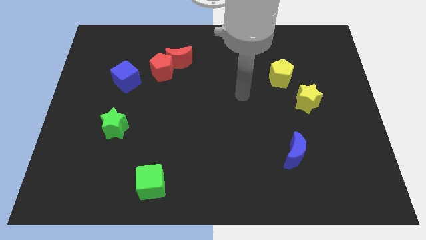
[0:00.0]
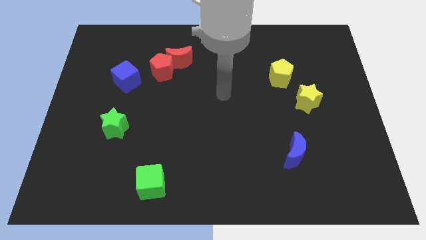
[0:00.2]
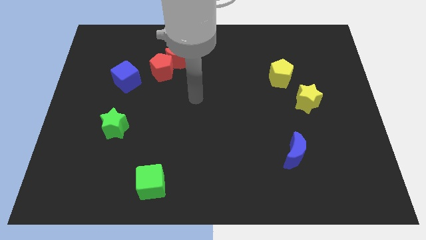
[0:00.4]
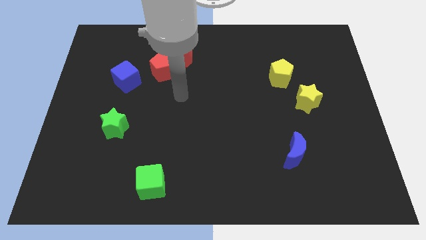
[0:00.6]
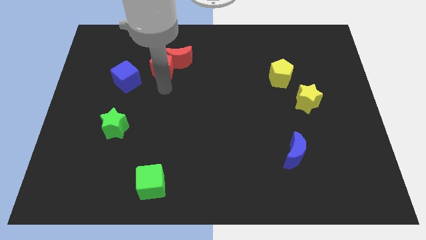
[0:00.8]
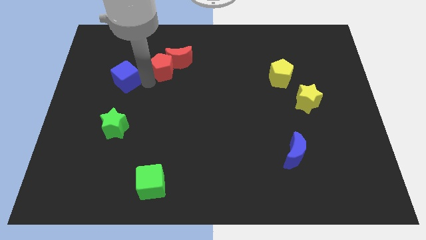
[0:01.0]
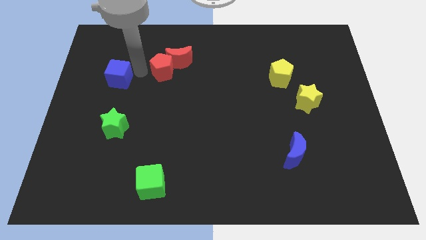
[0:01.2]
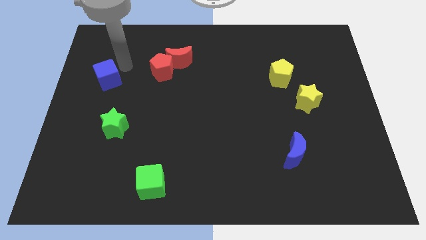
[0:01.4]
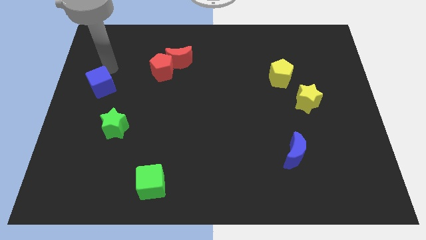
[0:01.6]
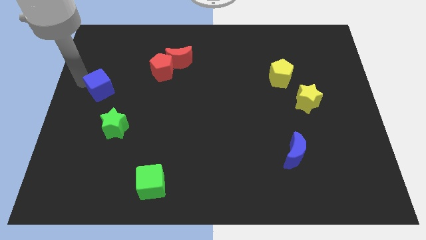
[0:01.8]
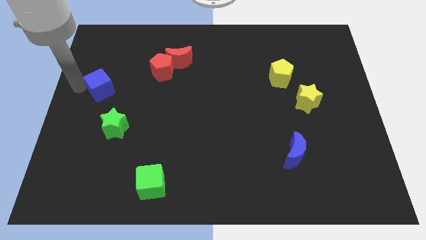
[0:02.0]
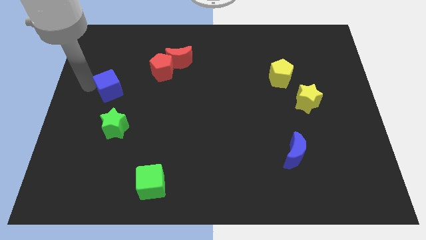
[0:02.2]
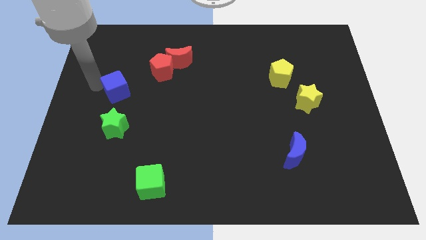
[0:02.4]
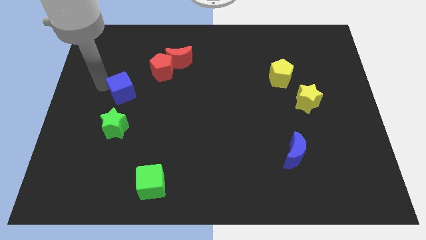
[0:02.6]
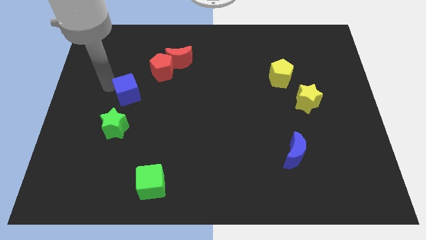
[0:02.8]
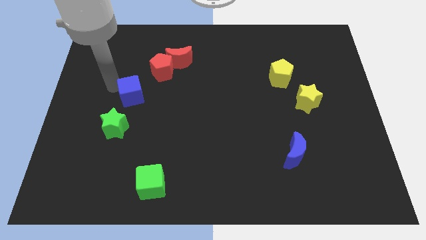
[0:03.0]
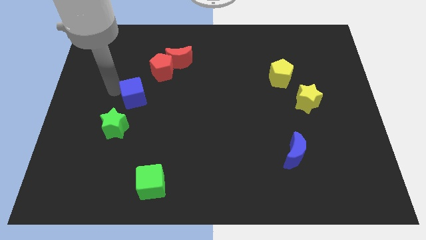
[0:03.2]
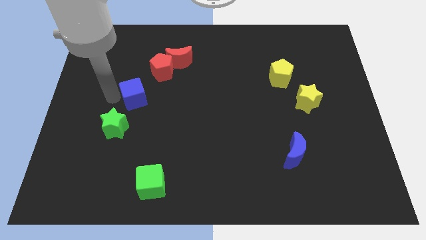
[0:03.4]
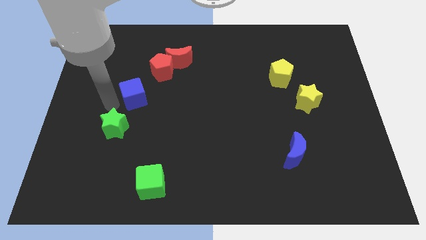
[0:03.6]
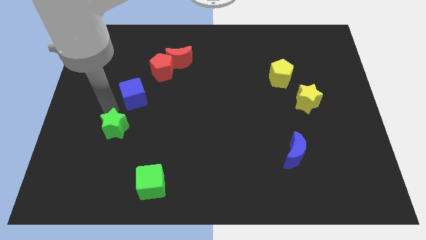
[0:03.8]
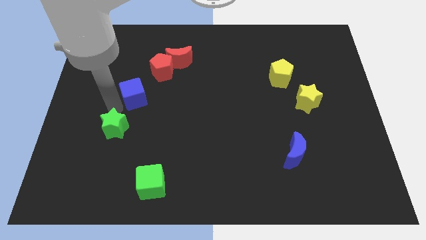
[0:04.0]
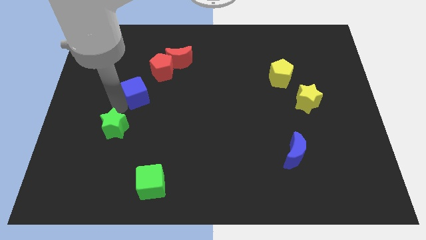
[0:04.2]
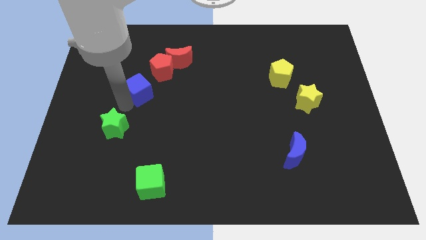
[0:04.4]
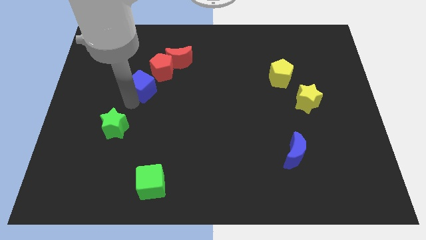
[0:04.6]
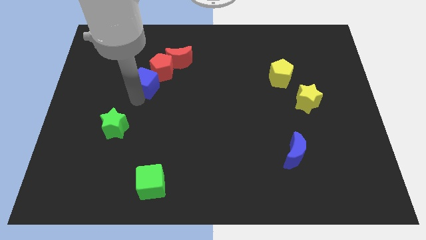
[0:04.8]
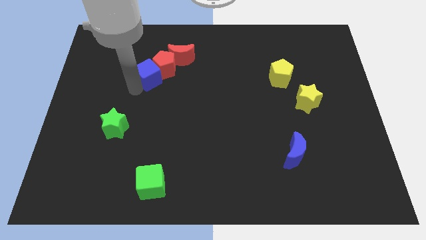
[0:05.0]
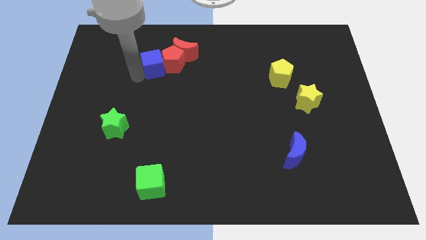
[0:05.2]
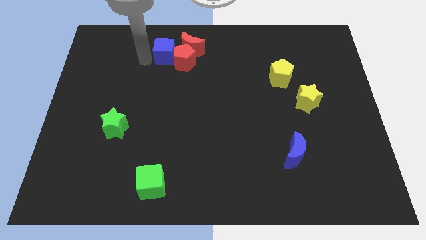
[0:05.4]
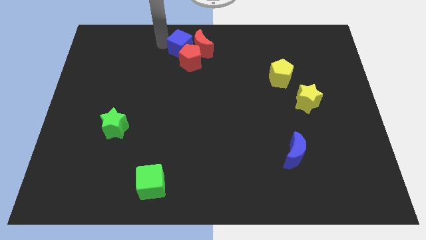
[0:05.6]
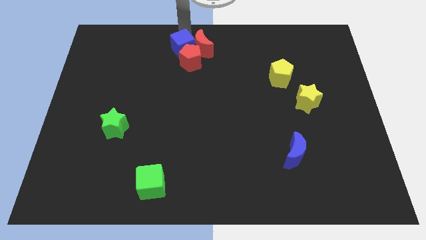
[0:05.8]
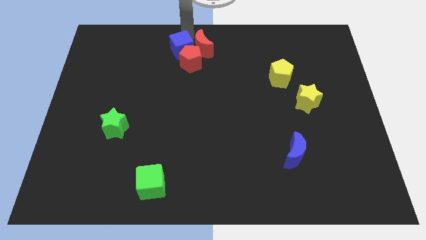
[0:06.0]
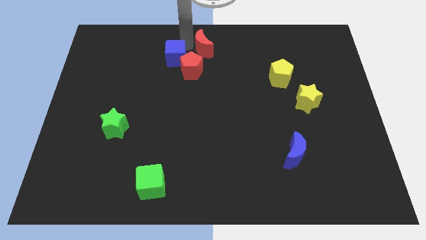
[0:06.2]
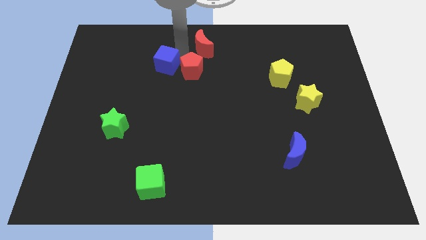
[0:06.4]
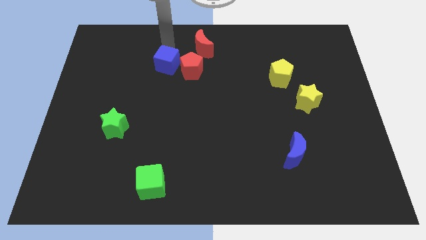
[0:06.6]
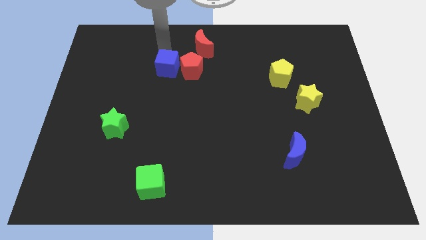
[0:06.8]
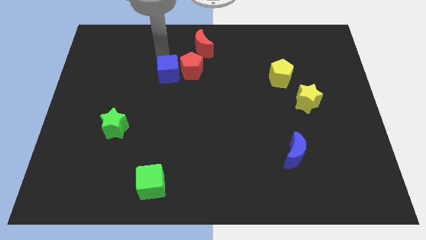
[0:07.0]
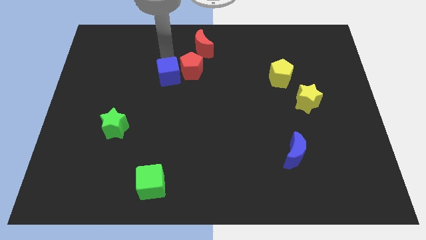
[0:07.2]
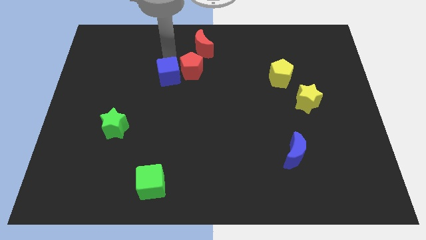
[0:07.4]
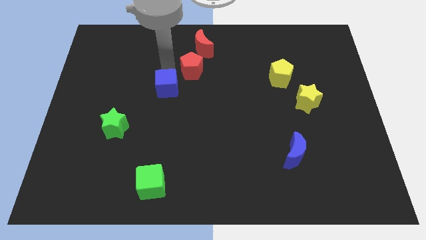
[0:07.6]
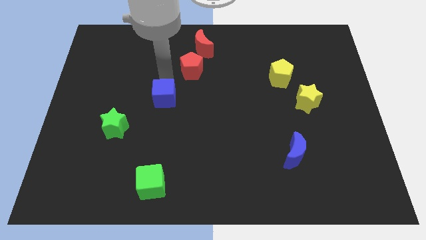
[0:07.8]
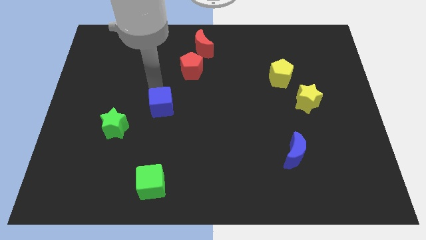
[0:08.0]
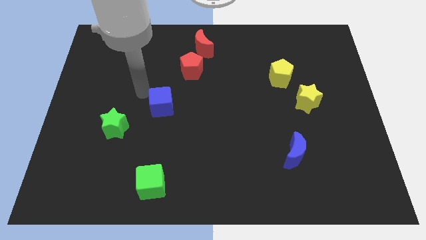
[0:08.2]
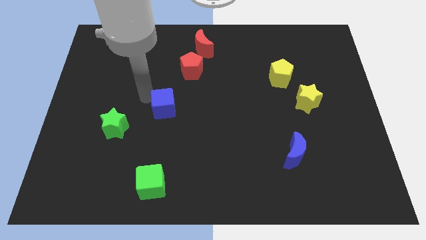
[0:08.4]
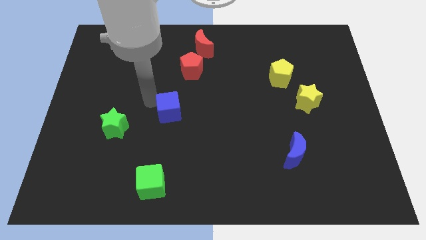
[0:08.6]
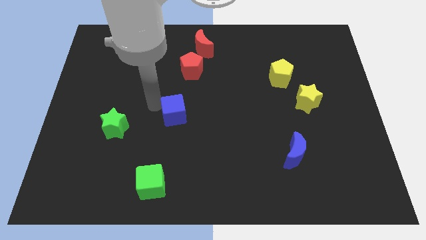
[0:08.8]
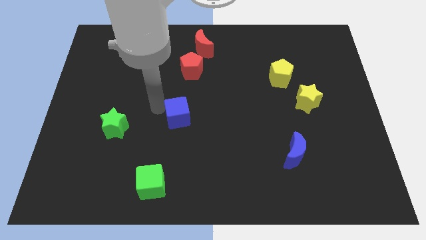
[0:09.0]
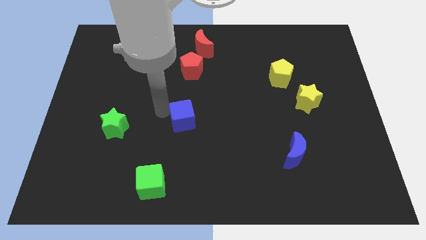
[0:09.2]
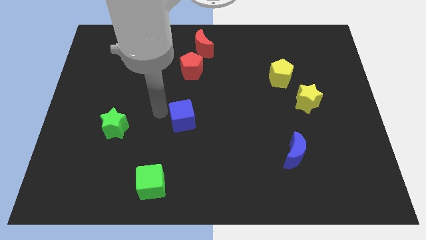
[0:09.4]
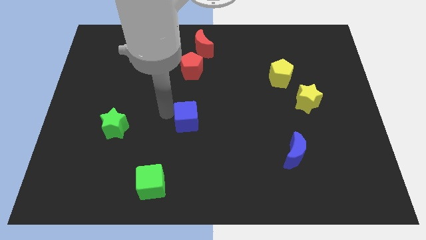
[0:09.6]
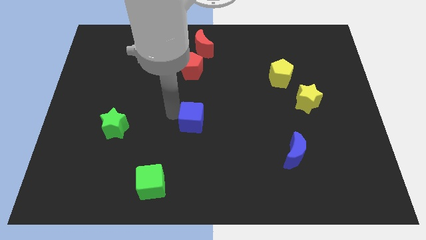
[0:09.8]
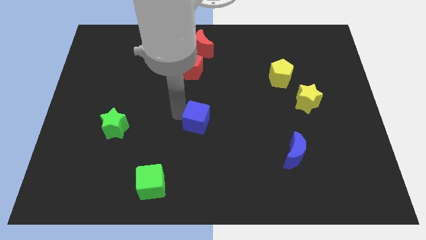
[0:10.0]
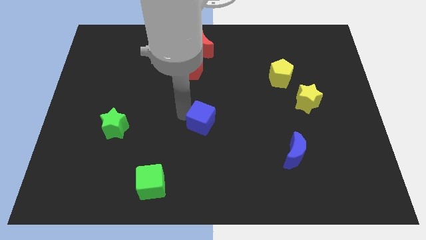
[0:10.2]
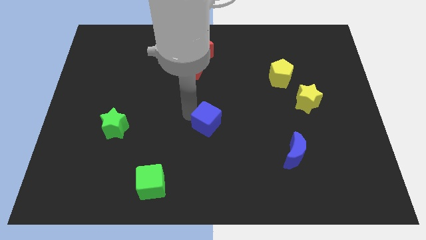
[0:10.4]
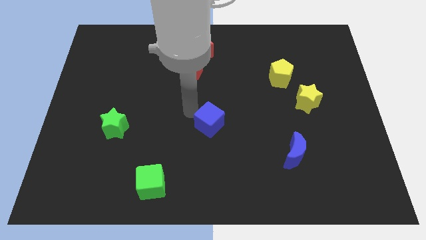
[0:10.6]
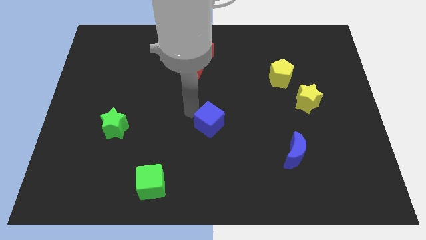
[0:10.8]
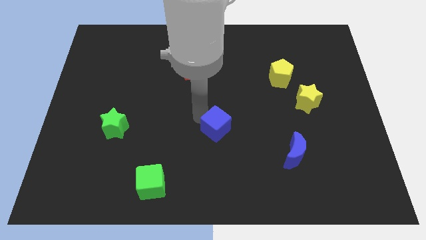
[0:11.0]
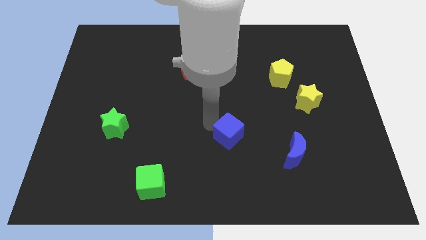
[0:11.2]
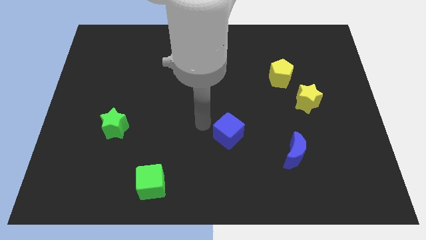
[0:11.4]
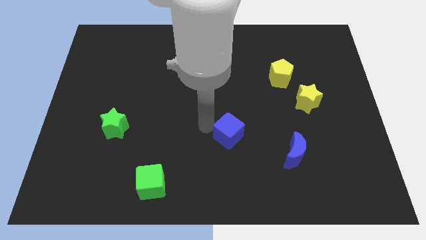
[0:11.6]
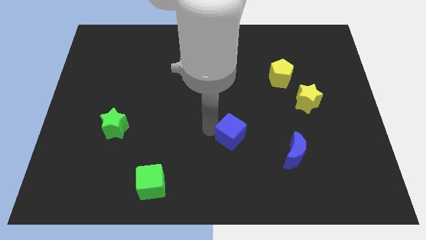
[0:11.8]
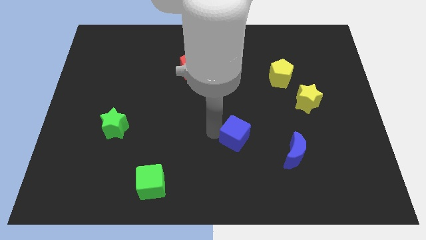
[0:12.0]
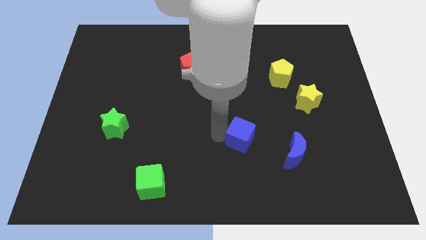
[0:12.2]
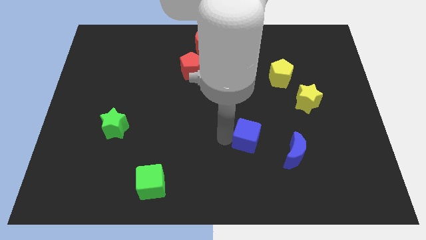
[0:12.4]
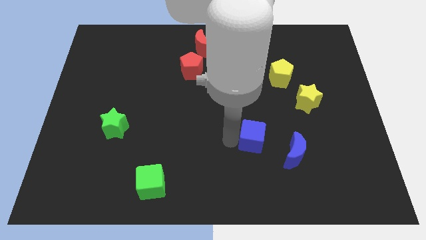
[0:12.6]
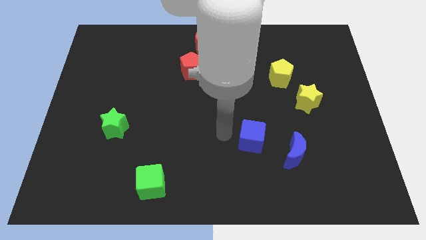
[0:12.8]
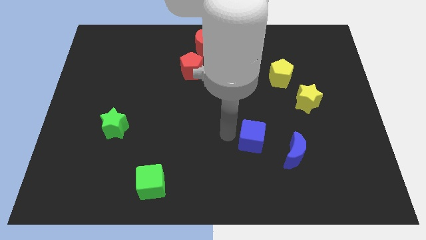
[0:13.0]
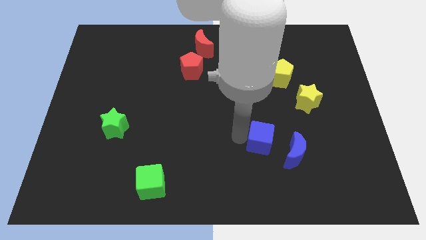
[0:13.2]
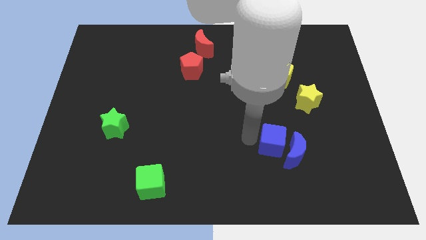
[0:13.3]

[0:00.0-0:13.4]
push the blue cube towards the blue moon

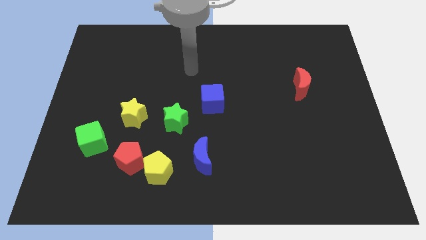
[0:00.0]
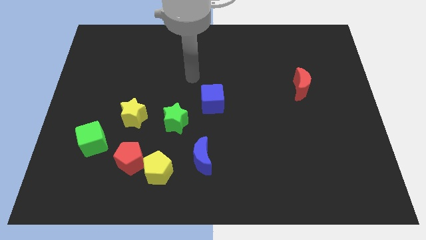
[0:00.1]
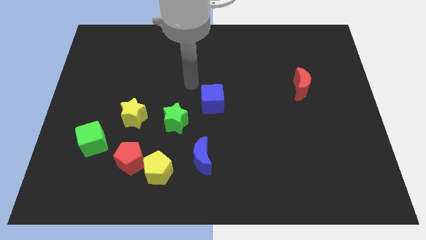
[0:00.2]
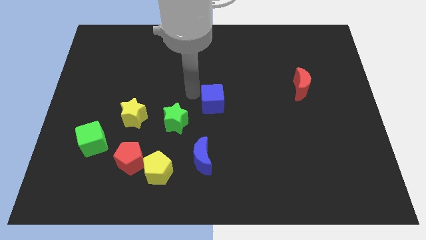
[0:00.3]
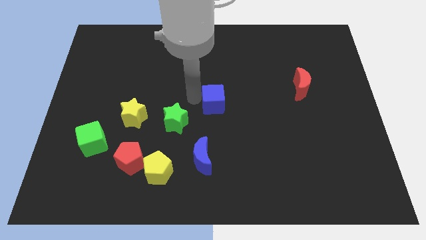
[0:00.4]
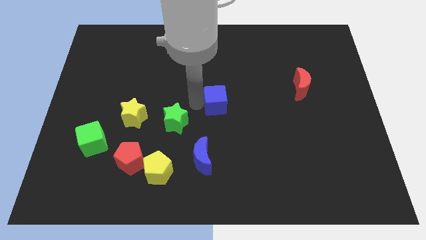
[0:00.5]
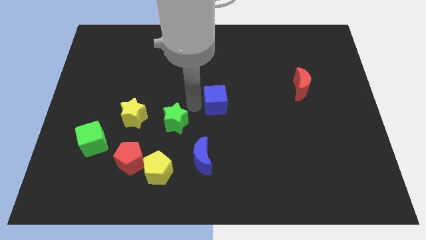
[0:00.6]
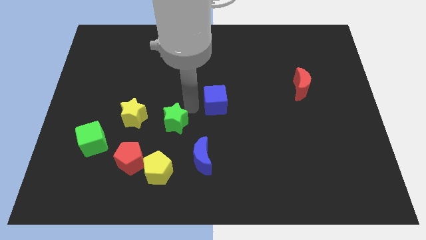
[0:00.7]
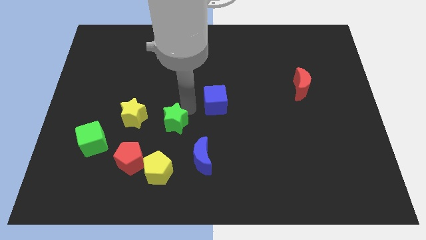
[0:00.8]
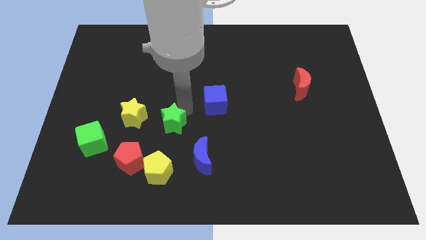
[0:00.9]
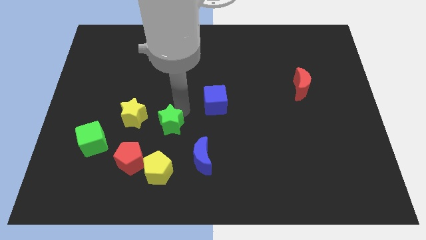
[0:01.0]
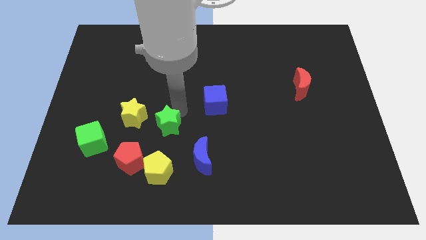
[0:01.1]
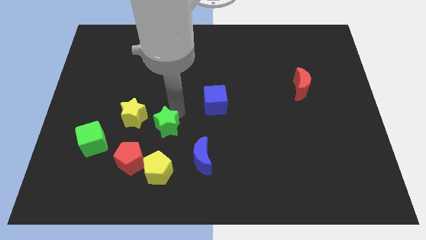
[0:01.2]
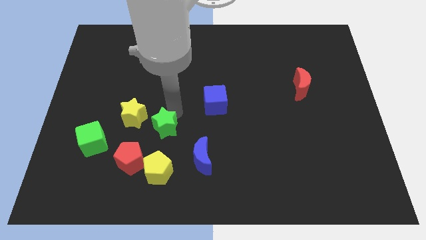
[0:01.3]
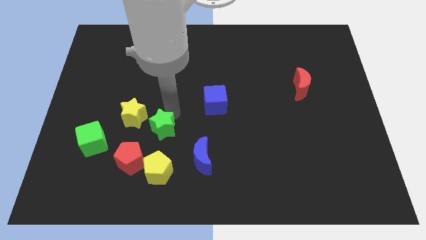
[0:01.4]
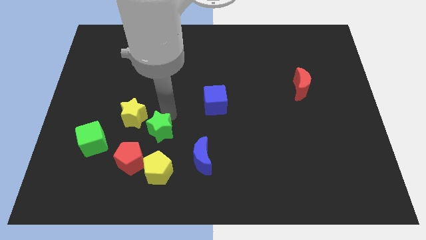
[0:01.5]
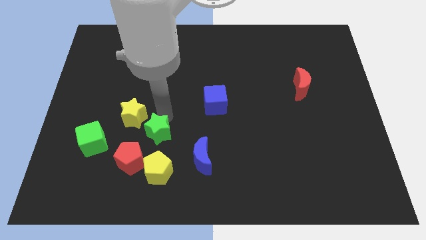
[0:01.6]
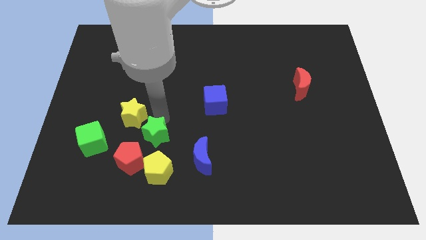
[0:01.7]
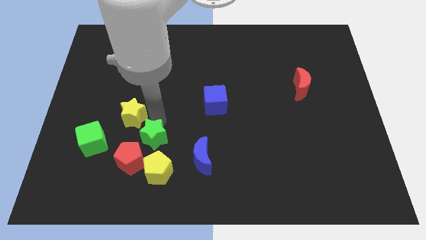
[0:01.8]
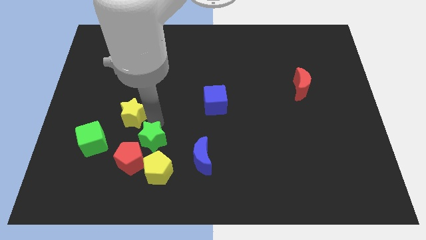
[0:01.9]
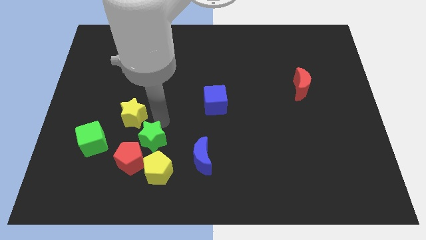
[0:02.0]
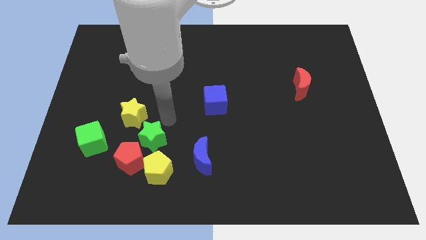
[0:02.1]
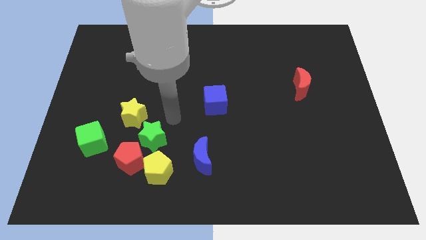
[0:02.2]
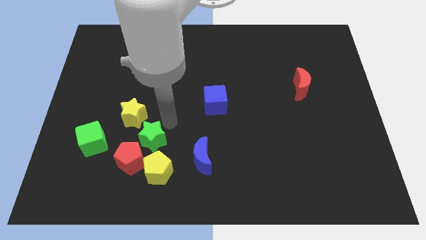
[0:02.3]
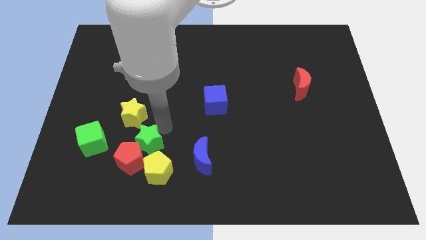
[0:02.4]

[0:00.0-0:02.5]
push the green star close to the red pentagon
